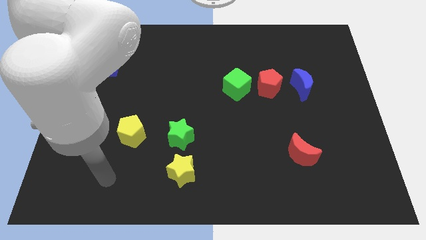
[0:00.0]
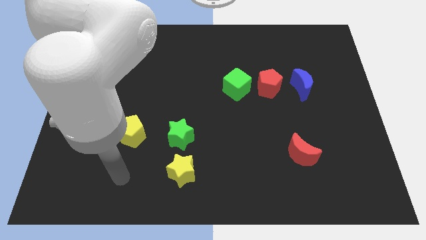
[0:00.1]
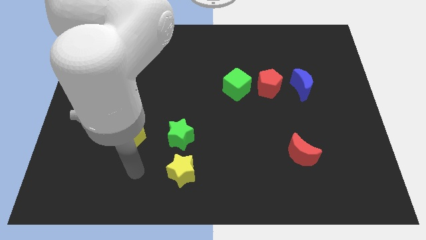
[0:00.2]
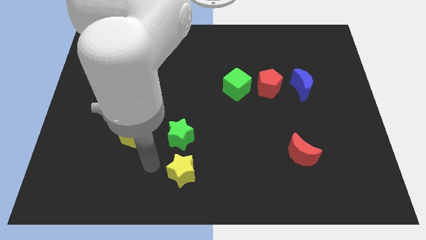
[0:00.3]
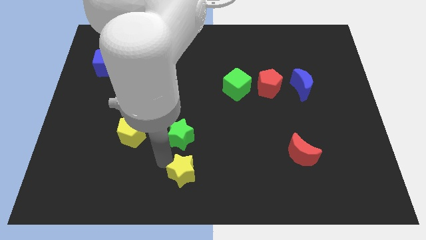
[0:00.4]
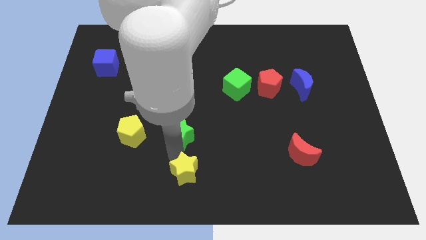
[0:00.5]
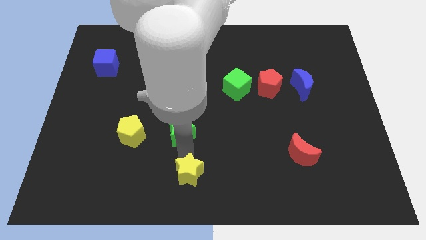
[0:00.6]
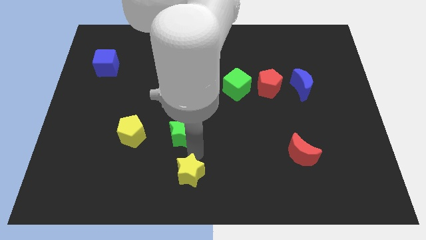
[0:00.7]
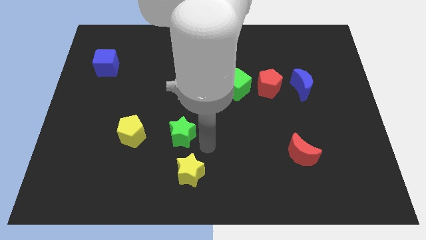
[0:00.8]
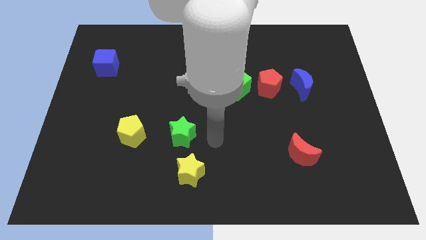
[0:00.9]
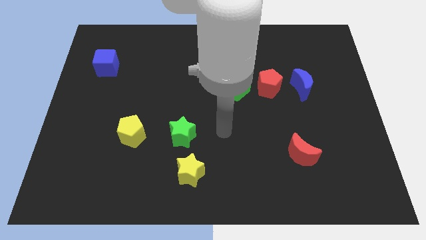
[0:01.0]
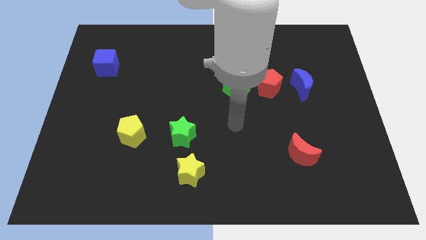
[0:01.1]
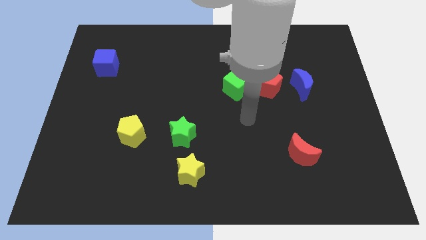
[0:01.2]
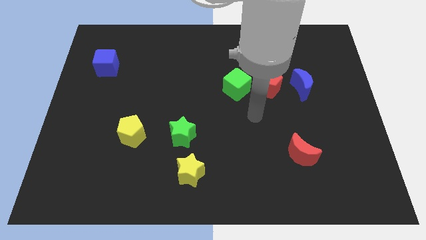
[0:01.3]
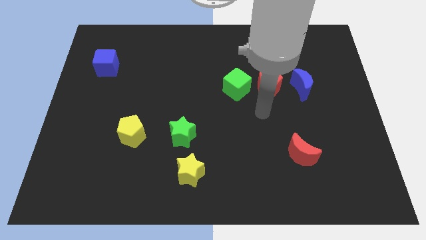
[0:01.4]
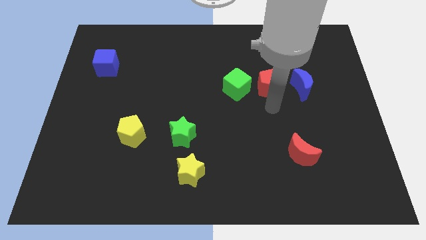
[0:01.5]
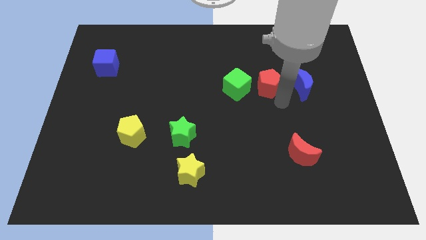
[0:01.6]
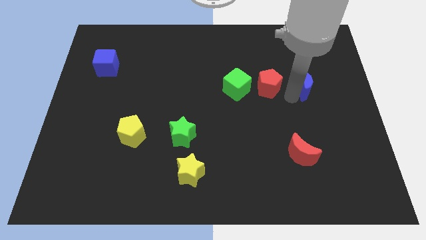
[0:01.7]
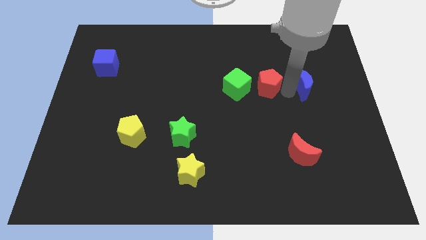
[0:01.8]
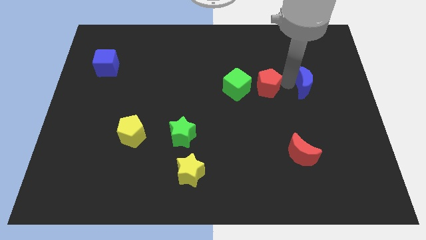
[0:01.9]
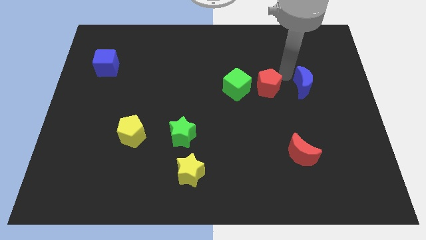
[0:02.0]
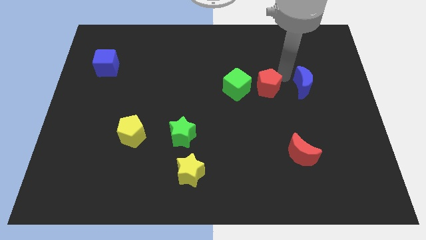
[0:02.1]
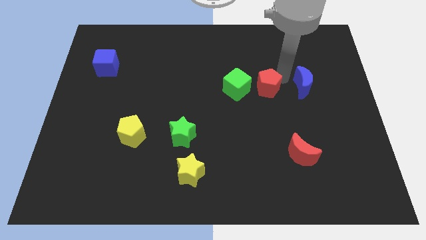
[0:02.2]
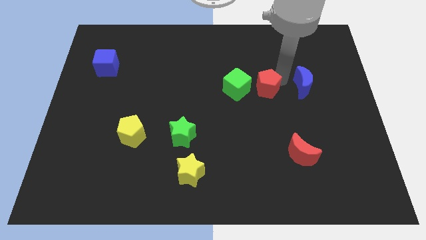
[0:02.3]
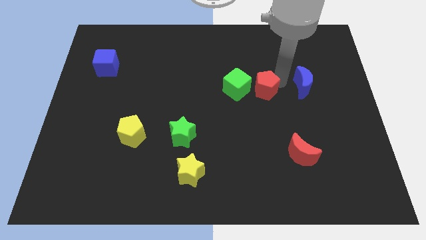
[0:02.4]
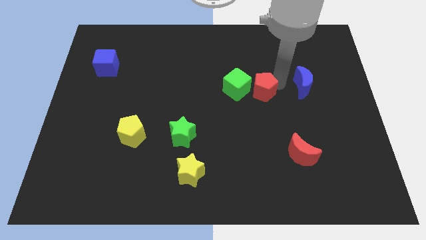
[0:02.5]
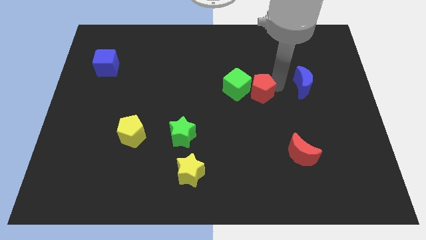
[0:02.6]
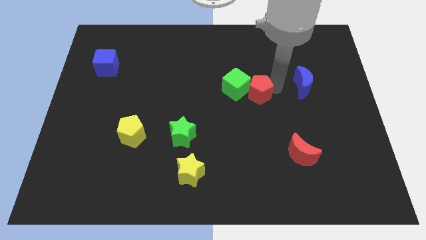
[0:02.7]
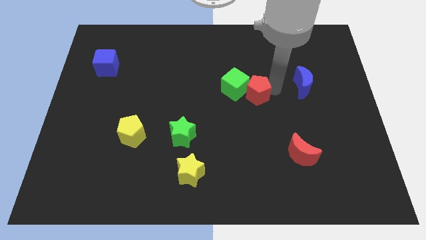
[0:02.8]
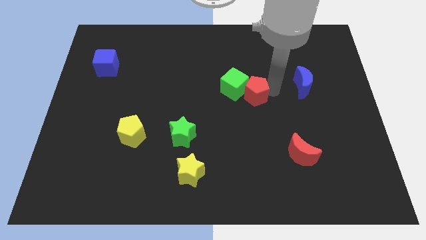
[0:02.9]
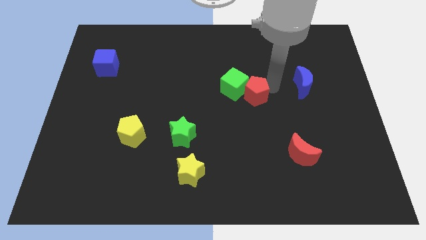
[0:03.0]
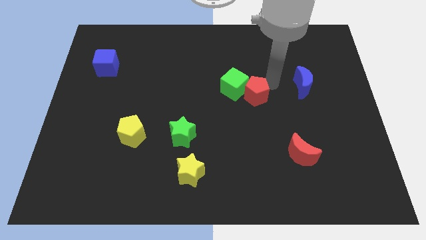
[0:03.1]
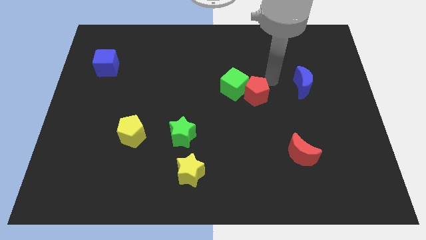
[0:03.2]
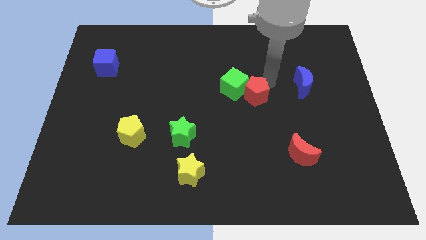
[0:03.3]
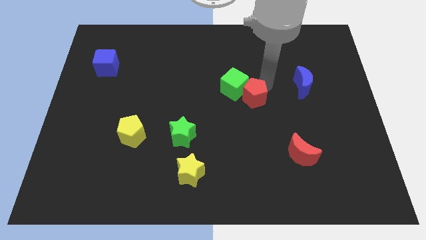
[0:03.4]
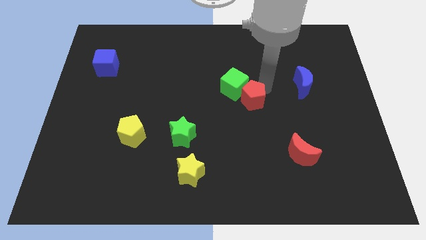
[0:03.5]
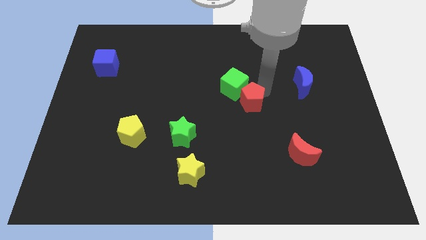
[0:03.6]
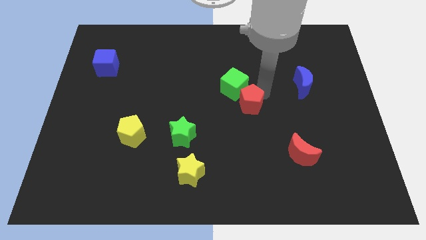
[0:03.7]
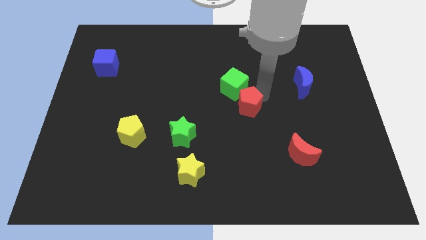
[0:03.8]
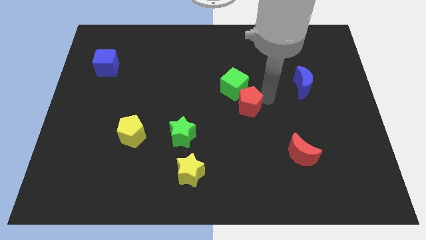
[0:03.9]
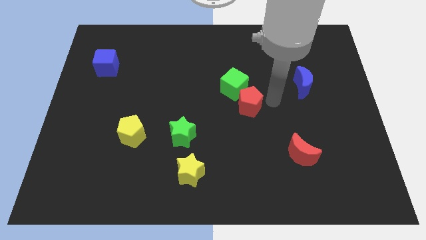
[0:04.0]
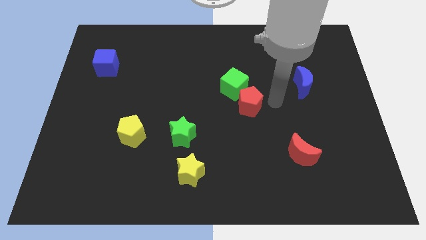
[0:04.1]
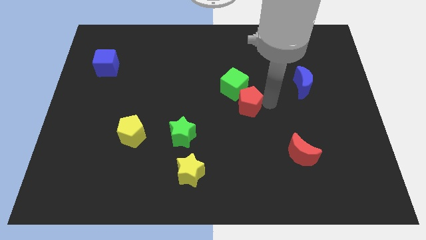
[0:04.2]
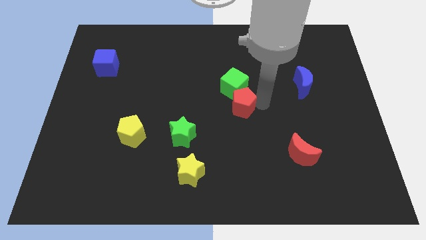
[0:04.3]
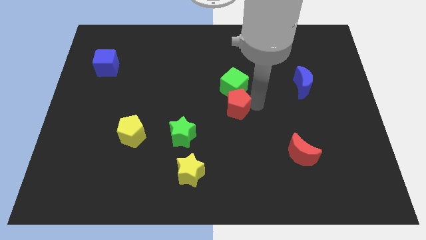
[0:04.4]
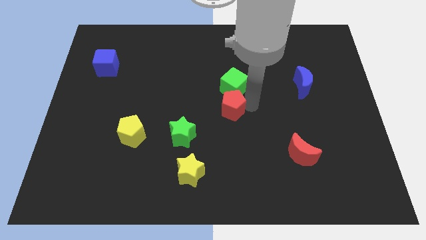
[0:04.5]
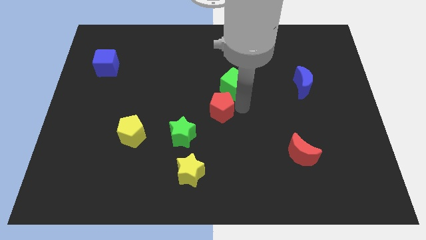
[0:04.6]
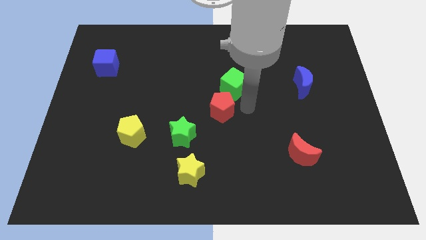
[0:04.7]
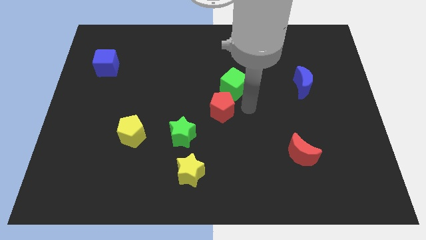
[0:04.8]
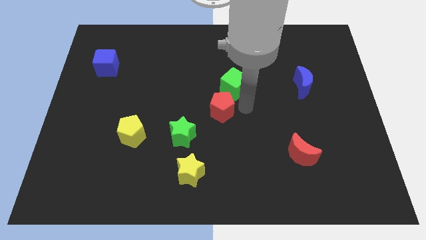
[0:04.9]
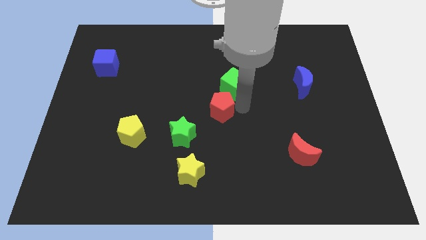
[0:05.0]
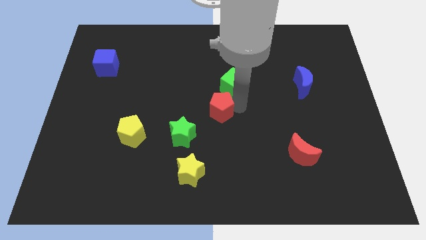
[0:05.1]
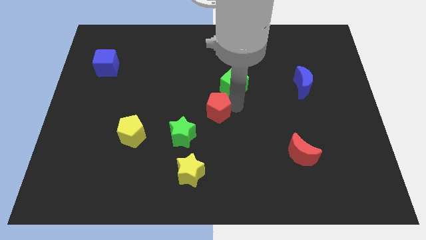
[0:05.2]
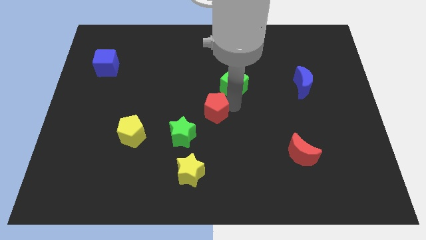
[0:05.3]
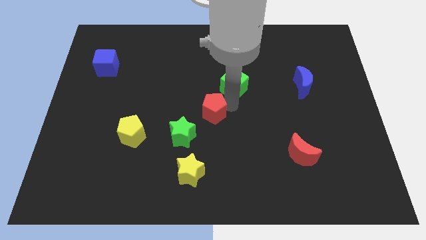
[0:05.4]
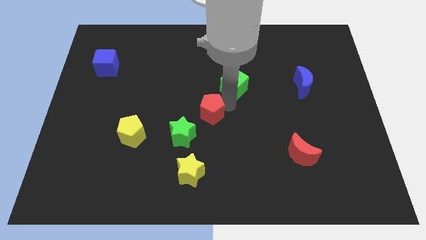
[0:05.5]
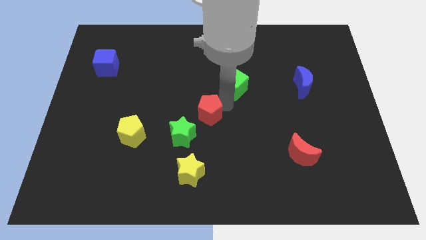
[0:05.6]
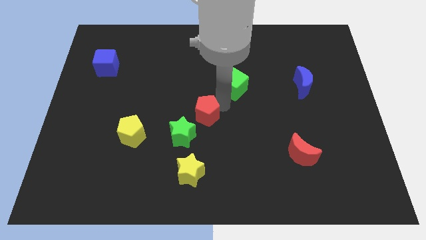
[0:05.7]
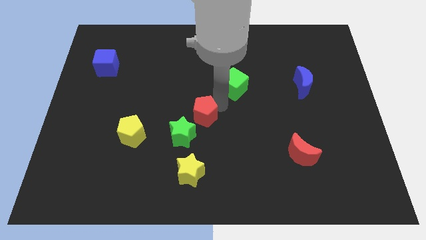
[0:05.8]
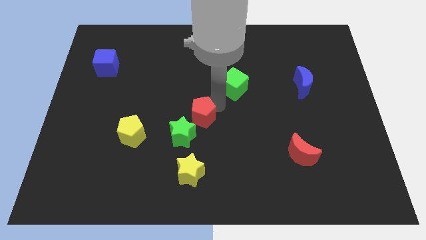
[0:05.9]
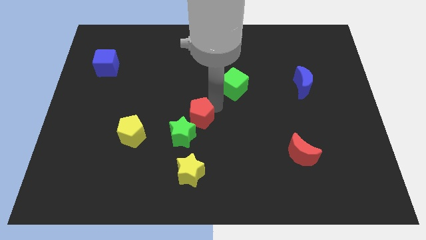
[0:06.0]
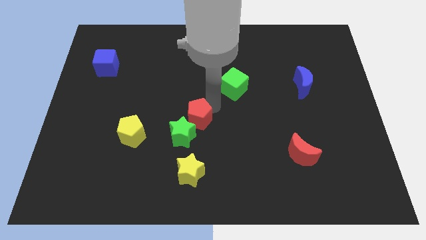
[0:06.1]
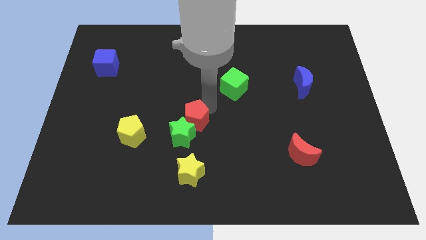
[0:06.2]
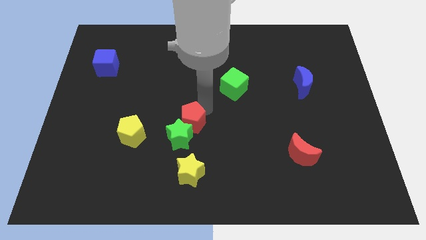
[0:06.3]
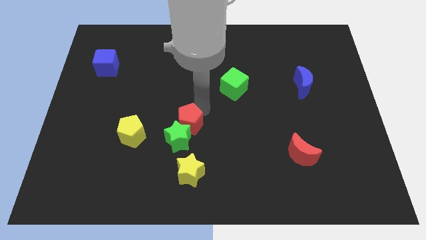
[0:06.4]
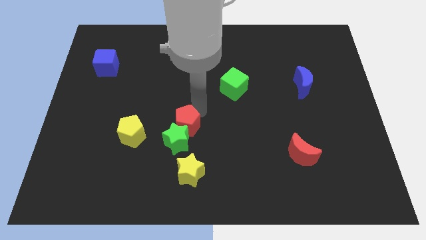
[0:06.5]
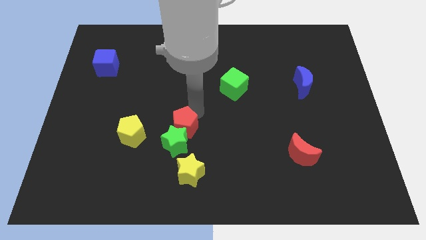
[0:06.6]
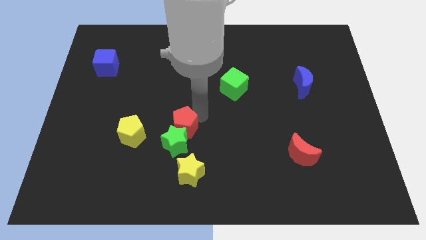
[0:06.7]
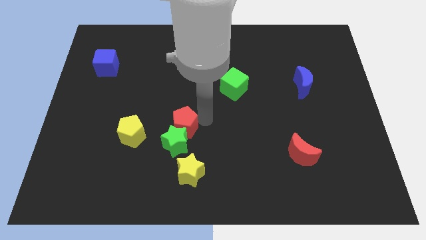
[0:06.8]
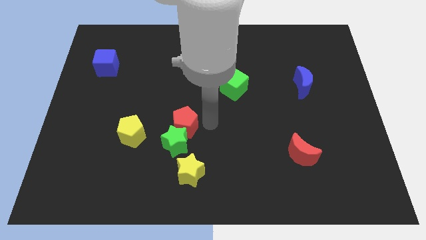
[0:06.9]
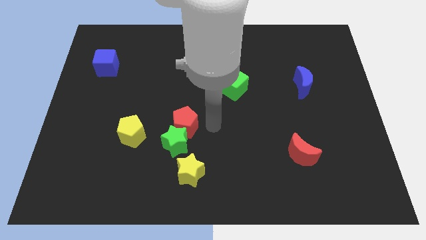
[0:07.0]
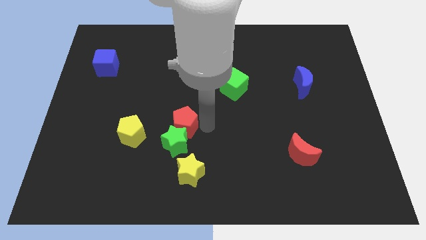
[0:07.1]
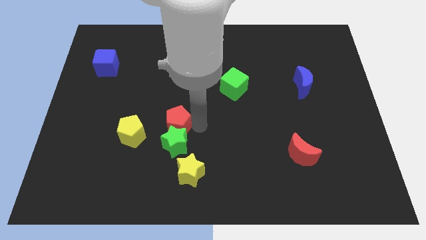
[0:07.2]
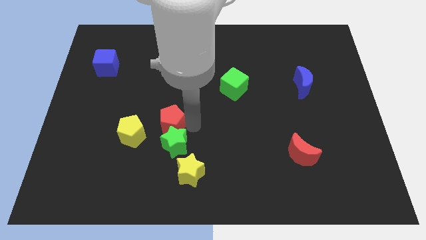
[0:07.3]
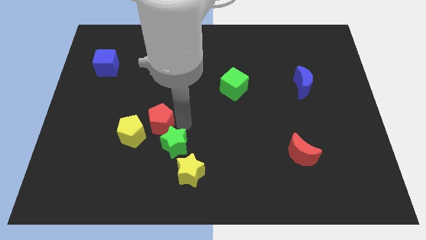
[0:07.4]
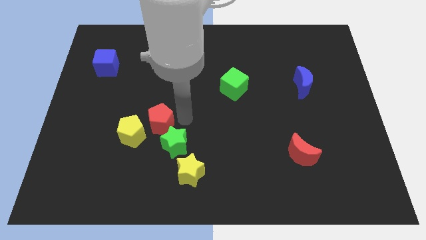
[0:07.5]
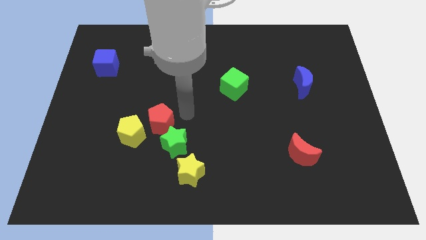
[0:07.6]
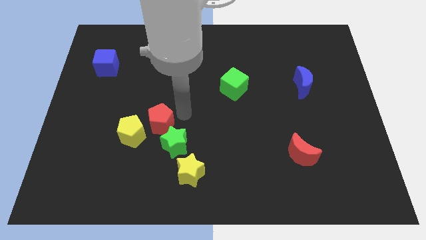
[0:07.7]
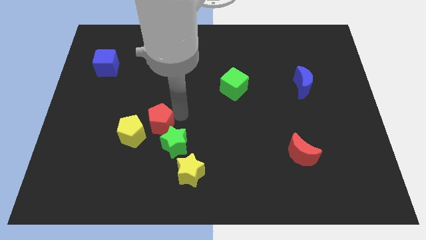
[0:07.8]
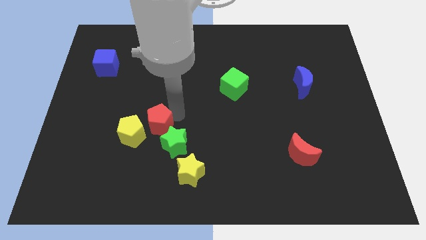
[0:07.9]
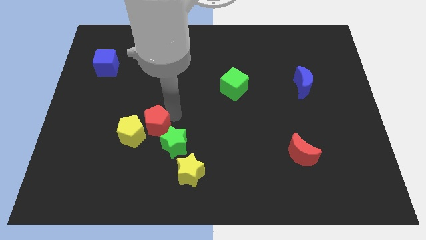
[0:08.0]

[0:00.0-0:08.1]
put the red pentagon towards the yellow pentagon
